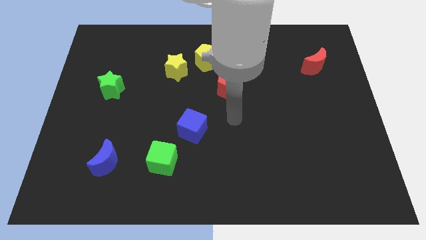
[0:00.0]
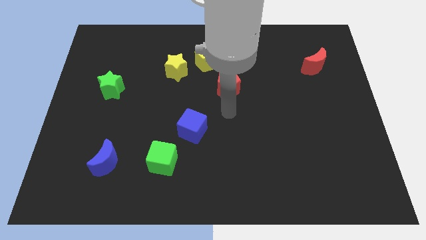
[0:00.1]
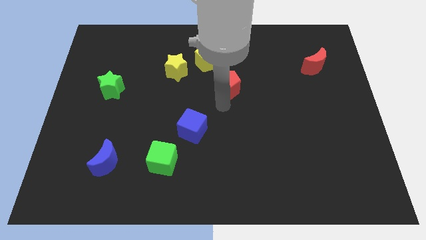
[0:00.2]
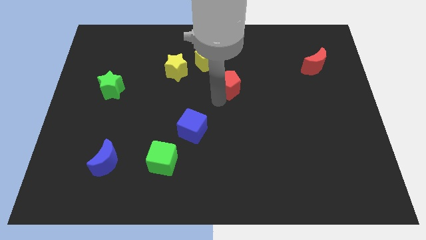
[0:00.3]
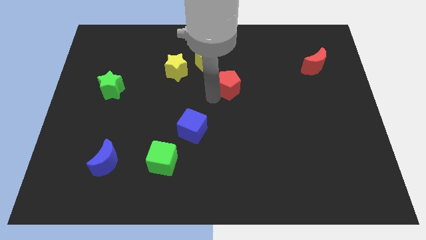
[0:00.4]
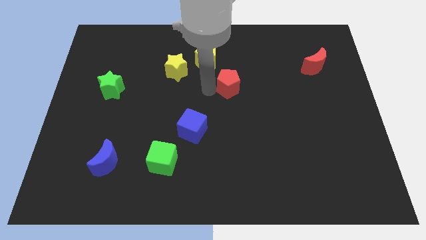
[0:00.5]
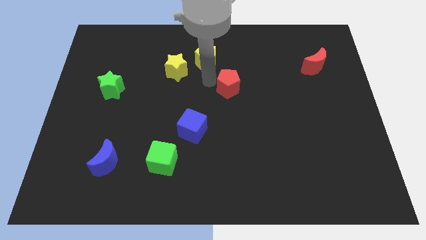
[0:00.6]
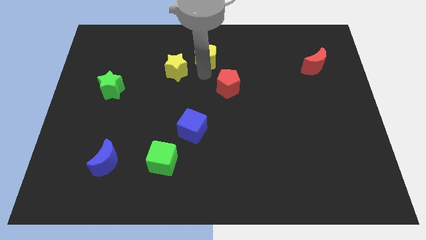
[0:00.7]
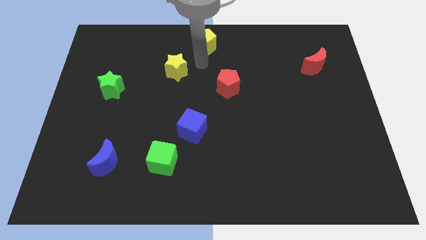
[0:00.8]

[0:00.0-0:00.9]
move the yellow star away from the yellow pentagon

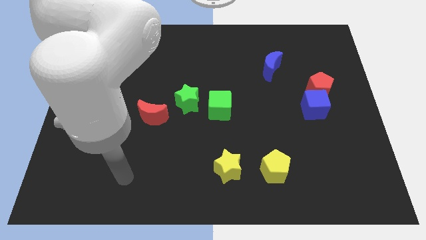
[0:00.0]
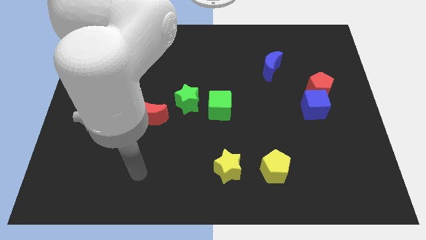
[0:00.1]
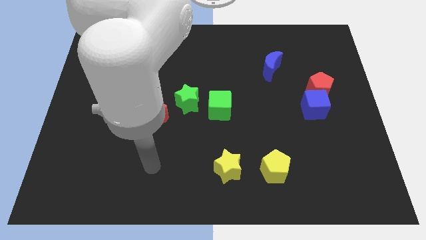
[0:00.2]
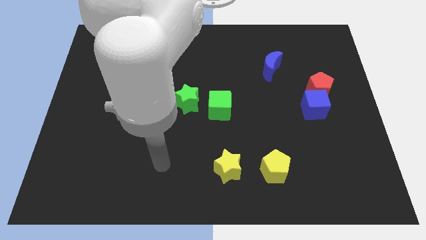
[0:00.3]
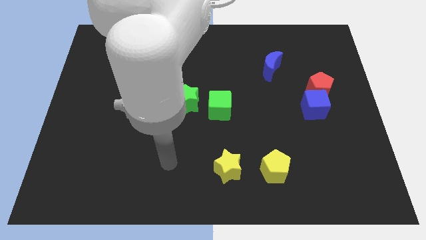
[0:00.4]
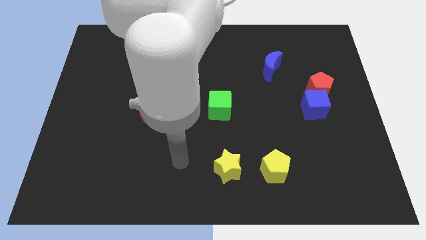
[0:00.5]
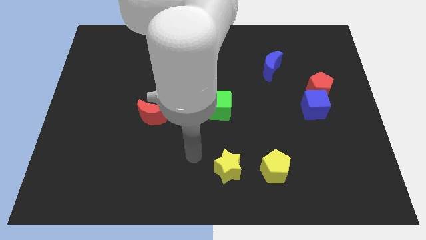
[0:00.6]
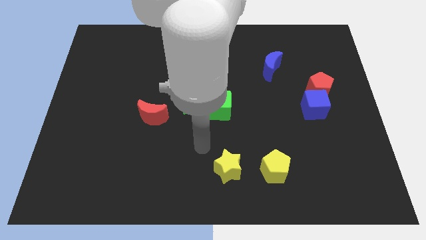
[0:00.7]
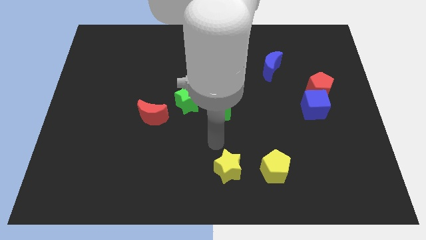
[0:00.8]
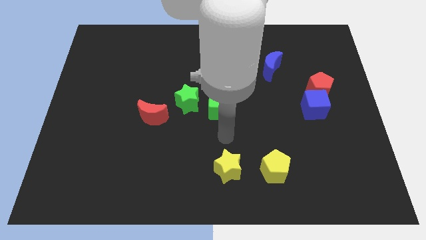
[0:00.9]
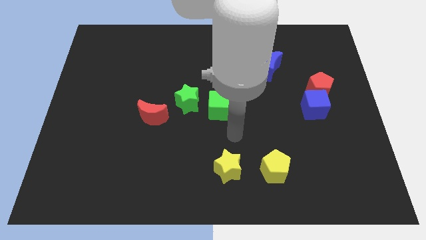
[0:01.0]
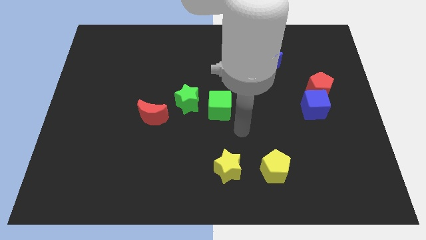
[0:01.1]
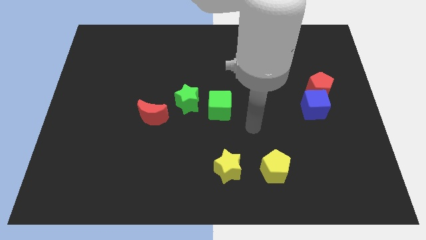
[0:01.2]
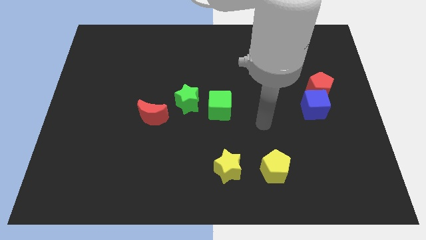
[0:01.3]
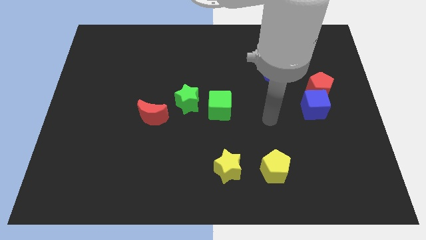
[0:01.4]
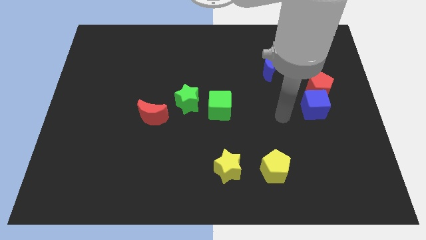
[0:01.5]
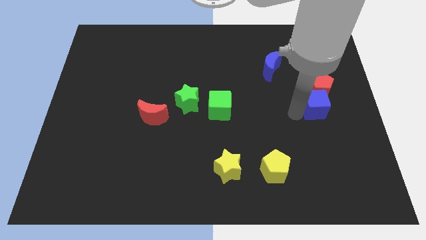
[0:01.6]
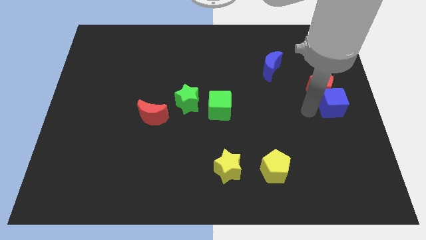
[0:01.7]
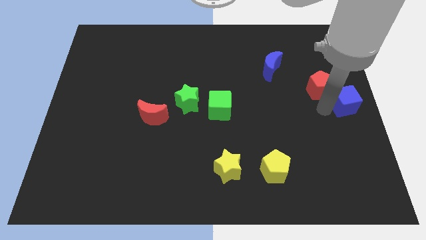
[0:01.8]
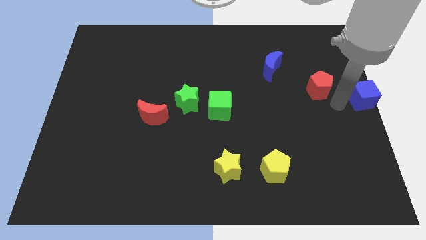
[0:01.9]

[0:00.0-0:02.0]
pull the red pentagon apart from the blue cube

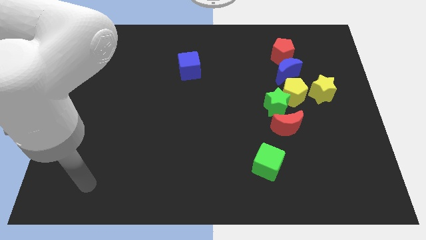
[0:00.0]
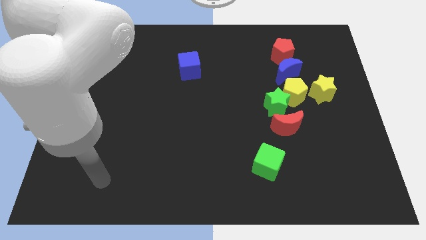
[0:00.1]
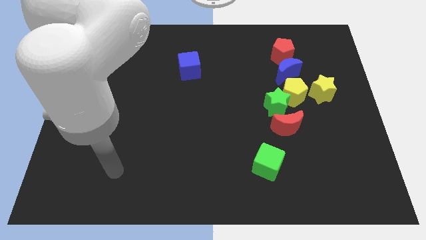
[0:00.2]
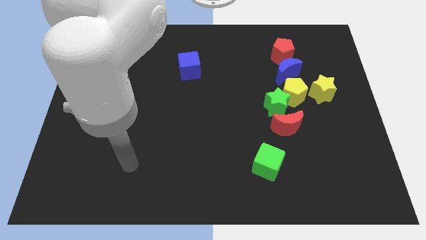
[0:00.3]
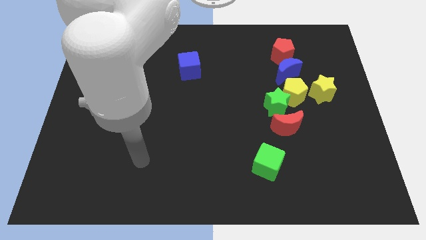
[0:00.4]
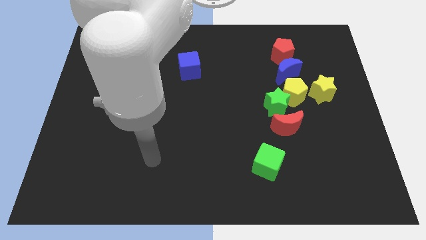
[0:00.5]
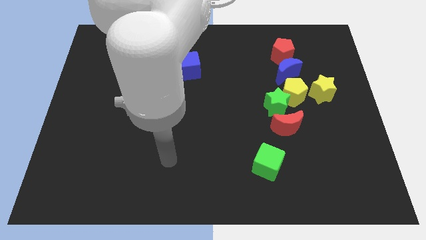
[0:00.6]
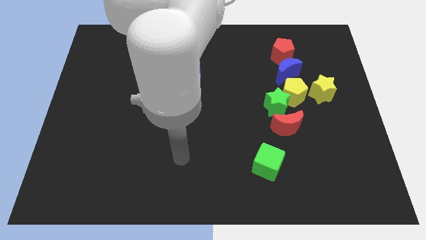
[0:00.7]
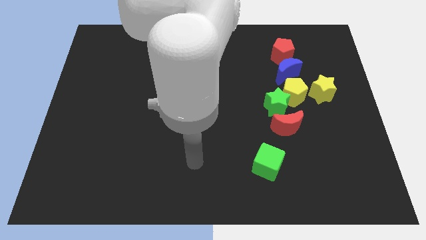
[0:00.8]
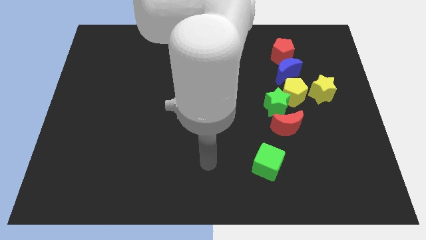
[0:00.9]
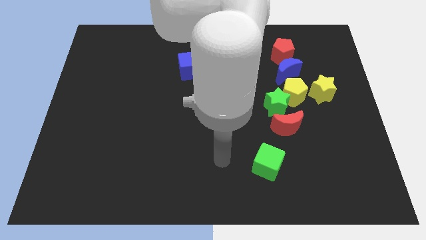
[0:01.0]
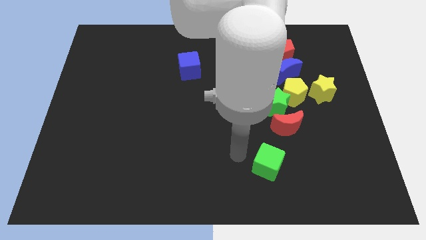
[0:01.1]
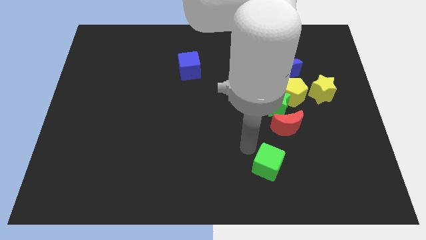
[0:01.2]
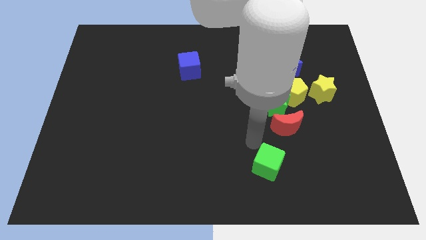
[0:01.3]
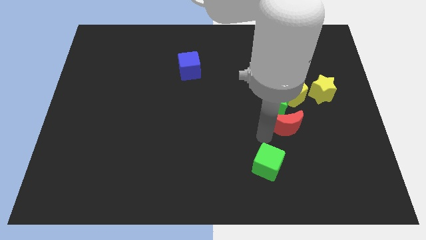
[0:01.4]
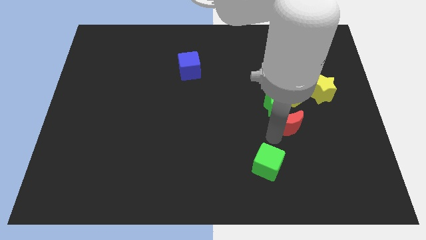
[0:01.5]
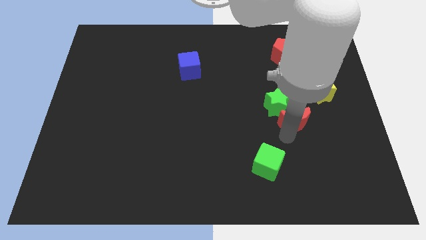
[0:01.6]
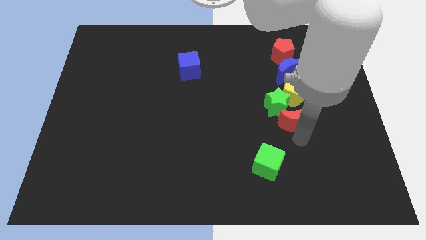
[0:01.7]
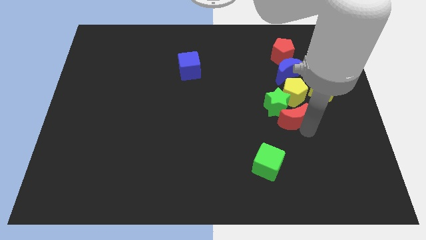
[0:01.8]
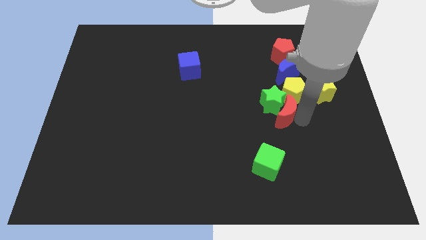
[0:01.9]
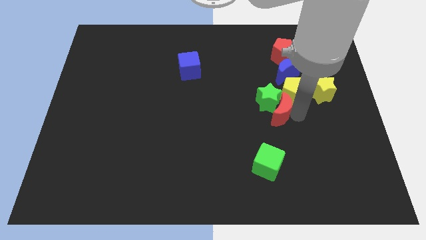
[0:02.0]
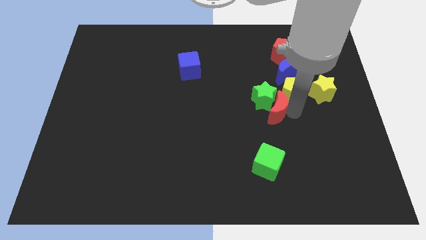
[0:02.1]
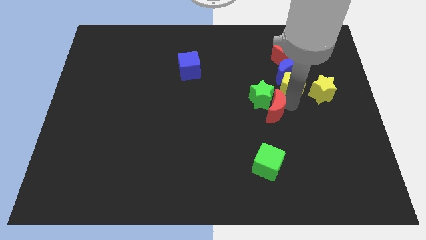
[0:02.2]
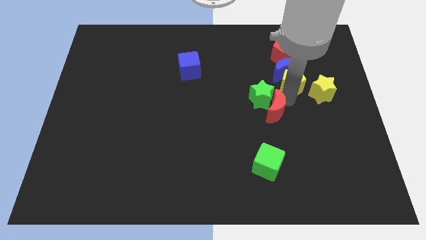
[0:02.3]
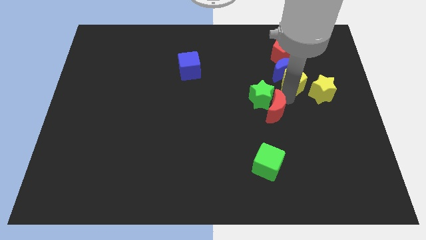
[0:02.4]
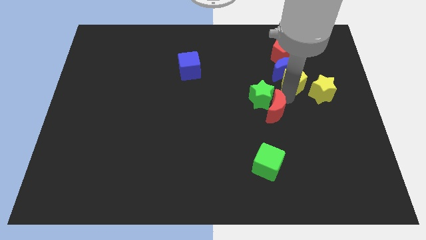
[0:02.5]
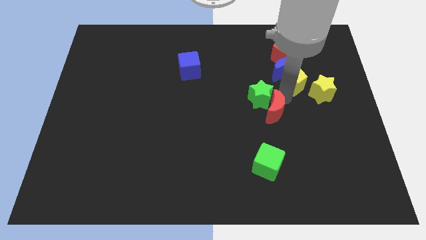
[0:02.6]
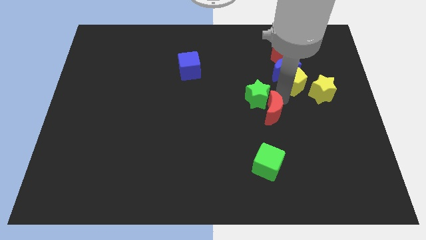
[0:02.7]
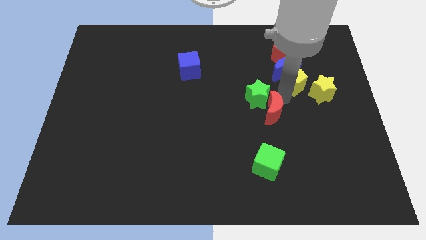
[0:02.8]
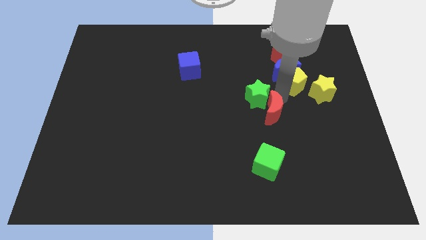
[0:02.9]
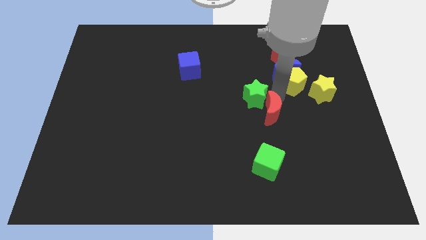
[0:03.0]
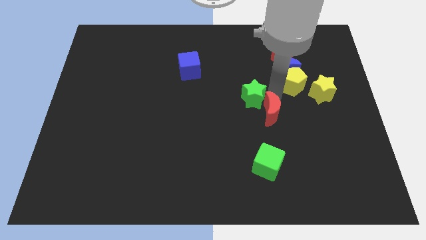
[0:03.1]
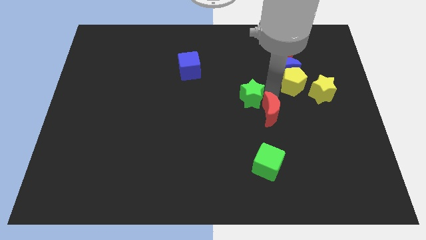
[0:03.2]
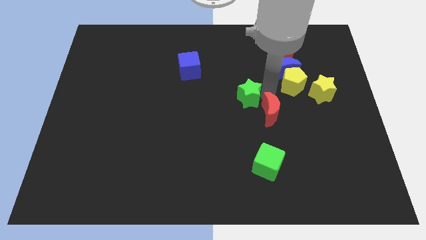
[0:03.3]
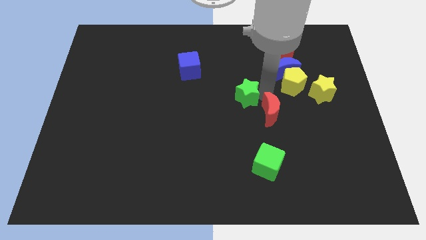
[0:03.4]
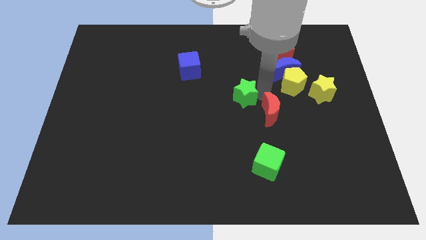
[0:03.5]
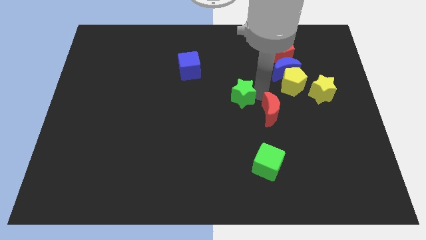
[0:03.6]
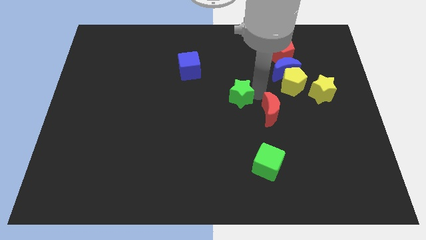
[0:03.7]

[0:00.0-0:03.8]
move the green star away from the yellow pentagon and red moon

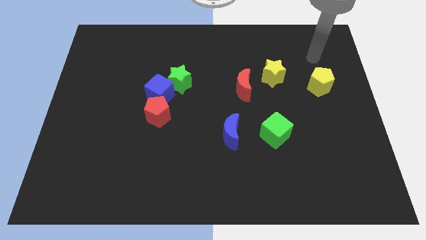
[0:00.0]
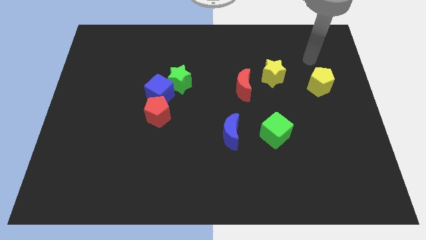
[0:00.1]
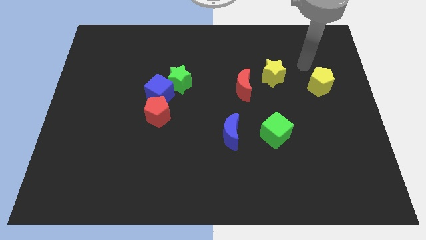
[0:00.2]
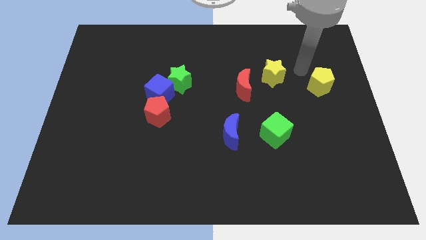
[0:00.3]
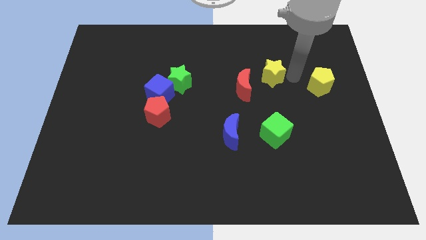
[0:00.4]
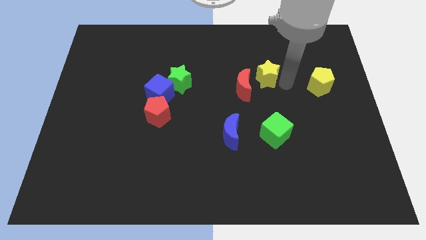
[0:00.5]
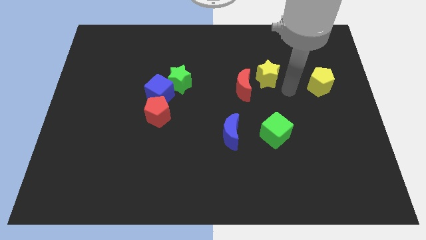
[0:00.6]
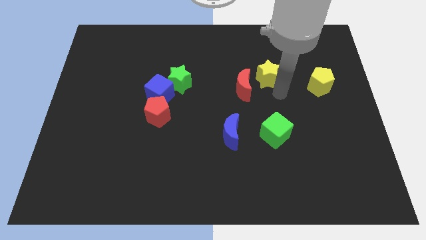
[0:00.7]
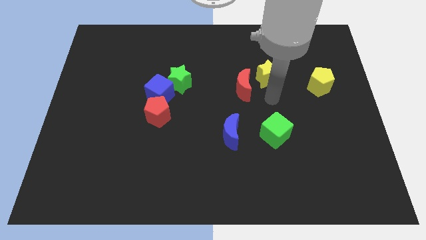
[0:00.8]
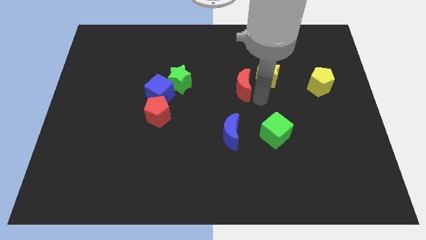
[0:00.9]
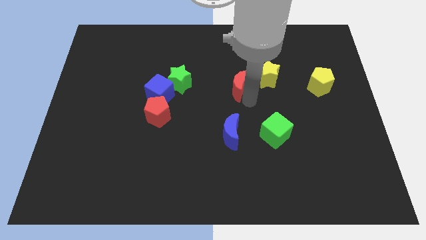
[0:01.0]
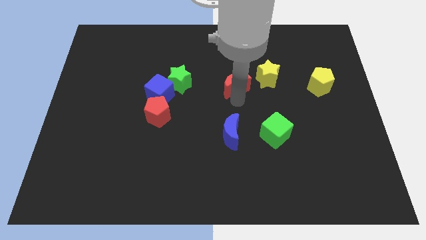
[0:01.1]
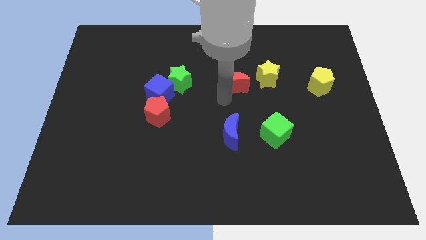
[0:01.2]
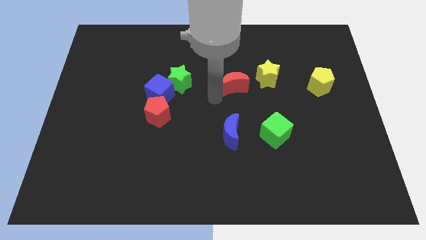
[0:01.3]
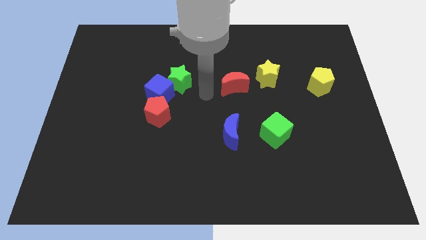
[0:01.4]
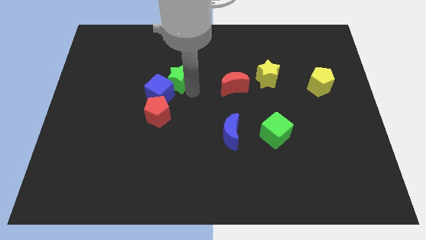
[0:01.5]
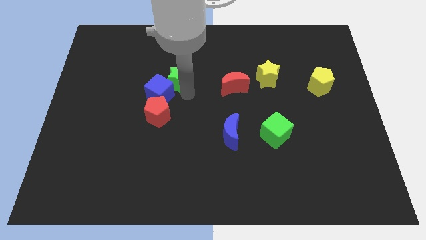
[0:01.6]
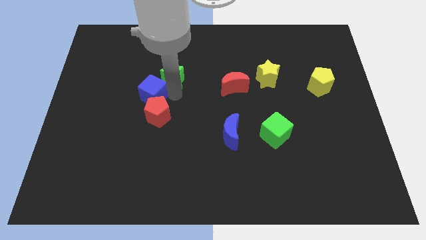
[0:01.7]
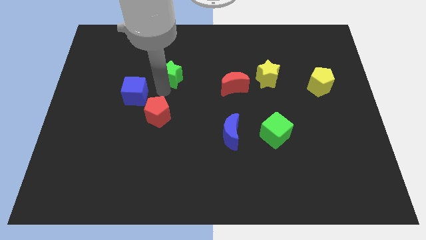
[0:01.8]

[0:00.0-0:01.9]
pull the green star apart from the blue cube

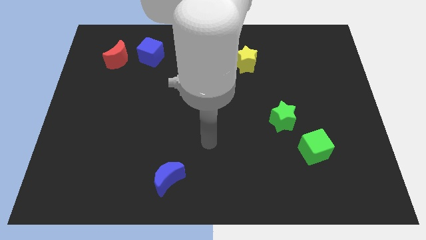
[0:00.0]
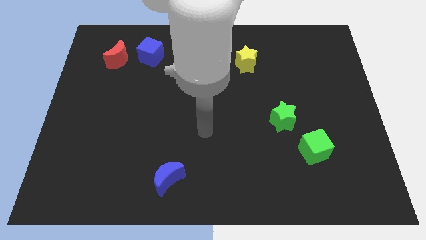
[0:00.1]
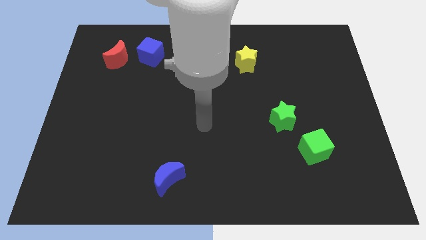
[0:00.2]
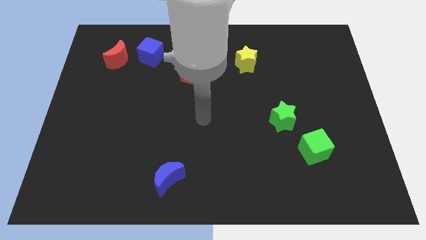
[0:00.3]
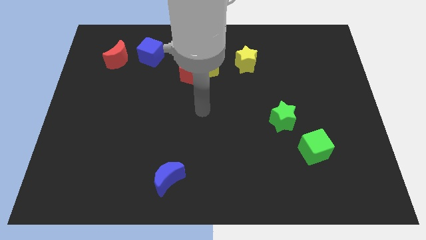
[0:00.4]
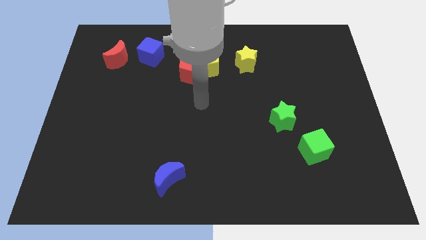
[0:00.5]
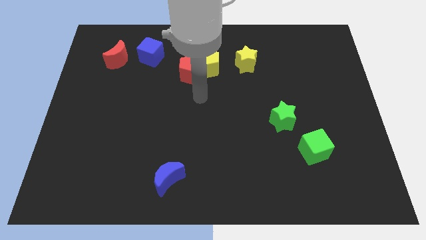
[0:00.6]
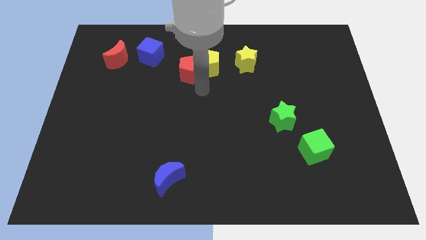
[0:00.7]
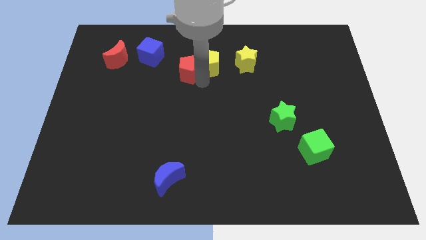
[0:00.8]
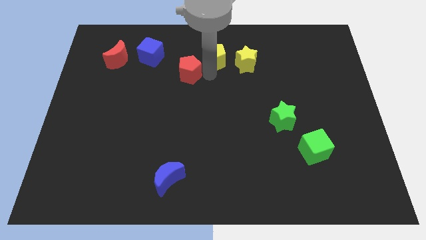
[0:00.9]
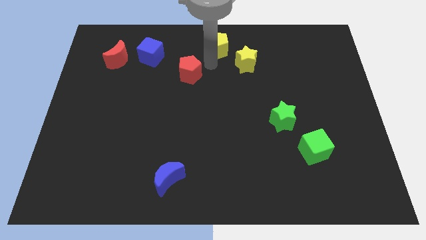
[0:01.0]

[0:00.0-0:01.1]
pull the red pentagon apart from the yellow pentagon
